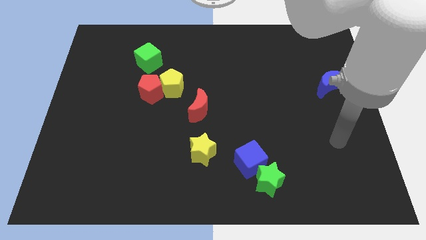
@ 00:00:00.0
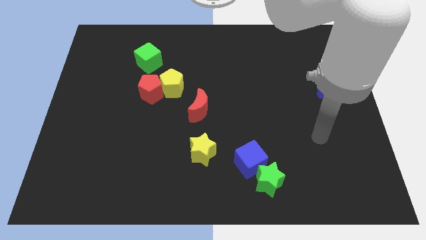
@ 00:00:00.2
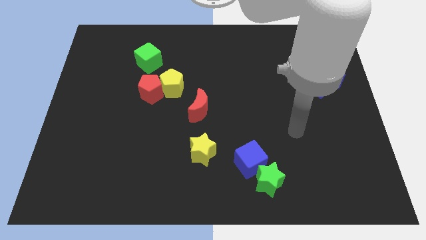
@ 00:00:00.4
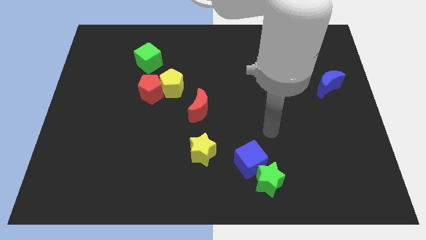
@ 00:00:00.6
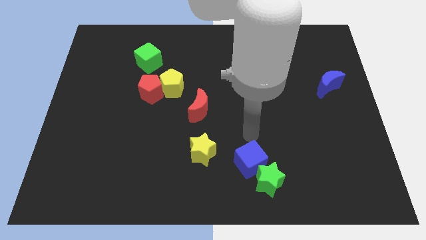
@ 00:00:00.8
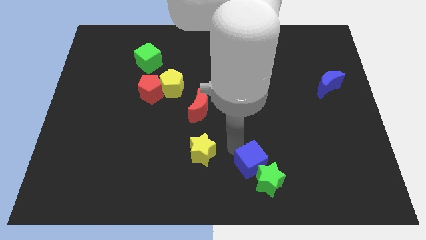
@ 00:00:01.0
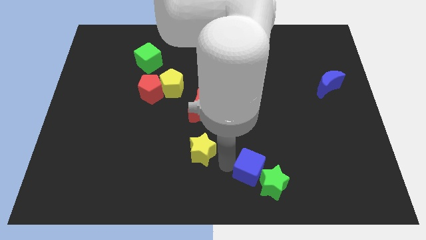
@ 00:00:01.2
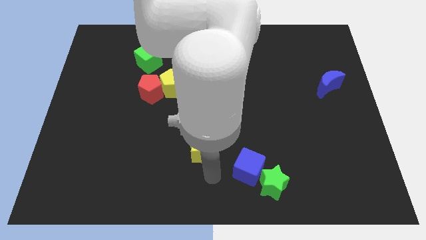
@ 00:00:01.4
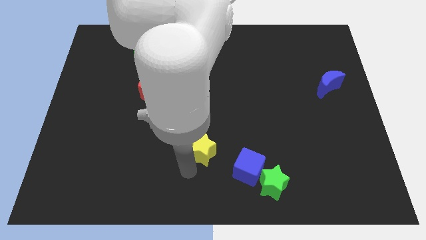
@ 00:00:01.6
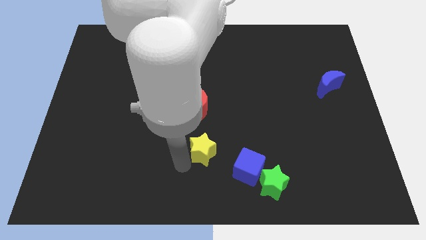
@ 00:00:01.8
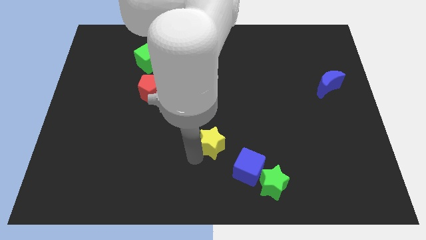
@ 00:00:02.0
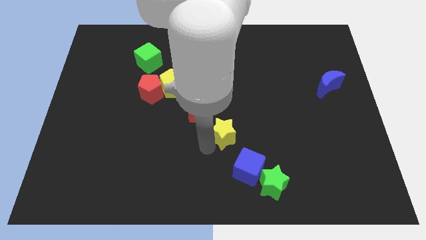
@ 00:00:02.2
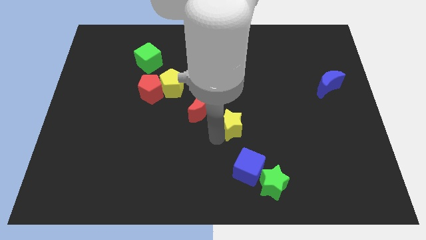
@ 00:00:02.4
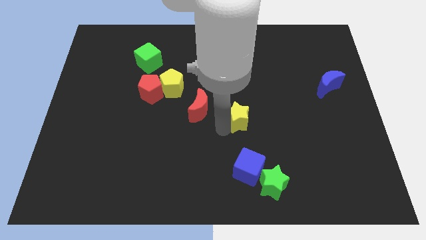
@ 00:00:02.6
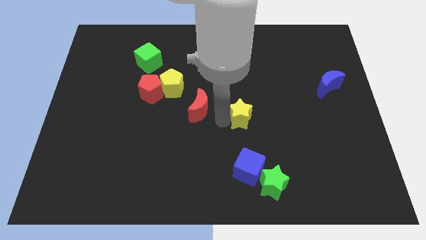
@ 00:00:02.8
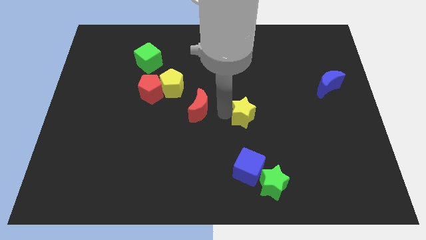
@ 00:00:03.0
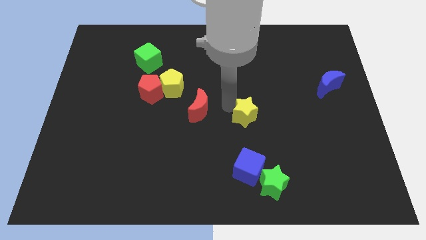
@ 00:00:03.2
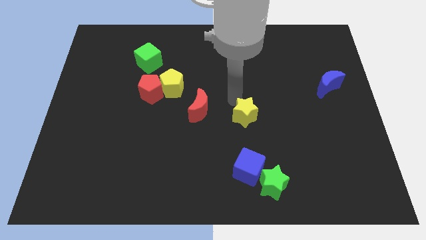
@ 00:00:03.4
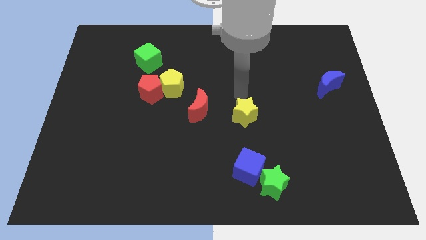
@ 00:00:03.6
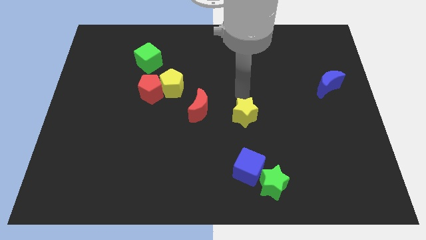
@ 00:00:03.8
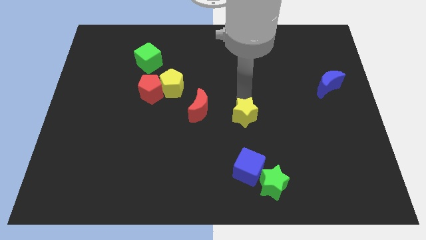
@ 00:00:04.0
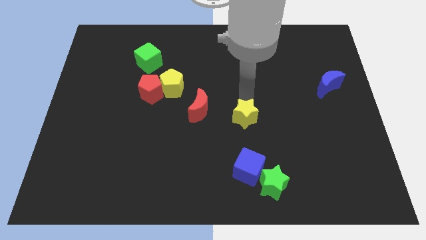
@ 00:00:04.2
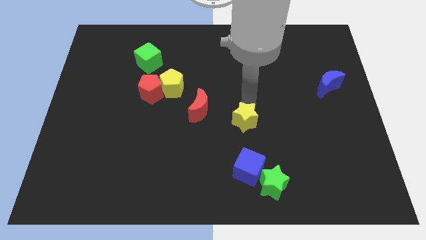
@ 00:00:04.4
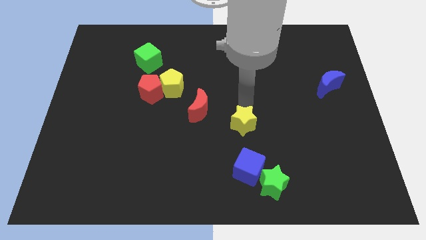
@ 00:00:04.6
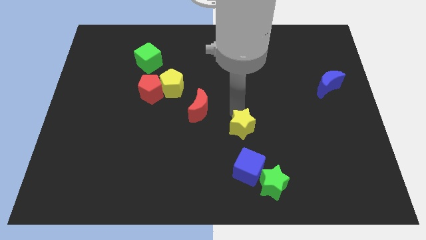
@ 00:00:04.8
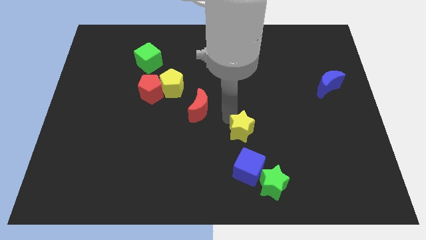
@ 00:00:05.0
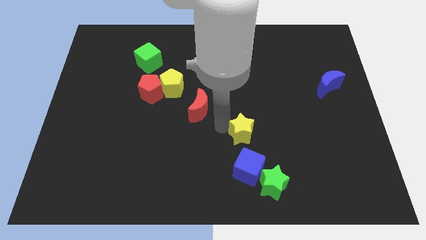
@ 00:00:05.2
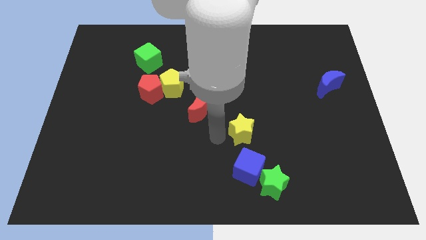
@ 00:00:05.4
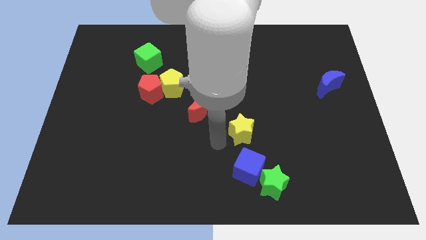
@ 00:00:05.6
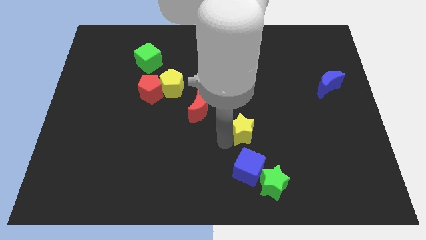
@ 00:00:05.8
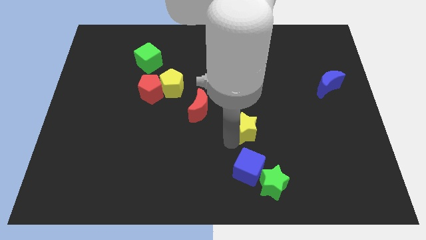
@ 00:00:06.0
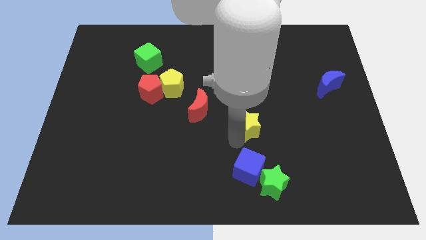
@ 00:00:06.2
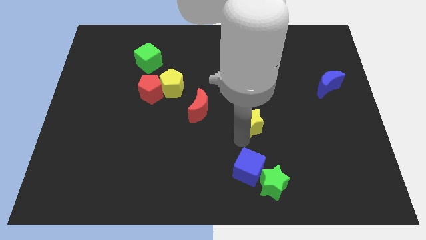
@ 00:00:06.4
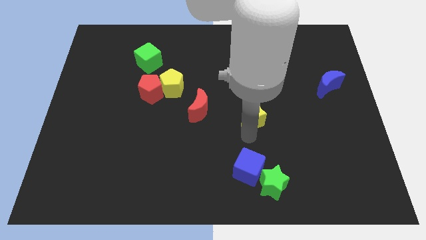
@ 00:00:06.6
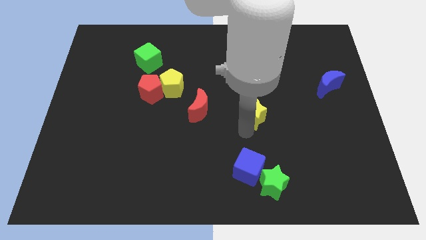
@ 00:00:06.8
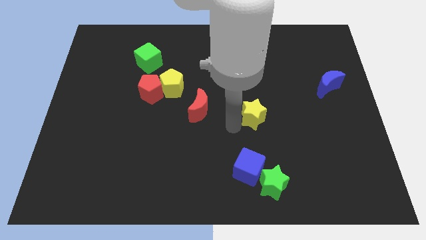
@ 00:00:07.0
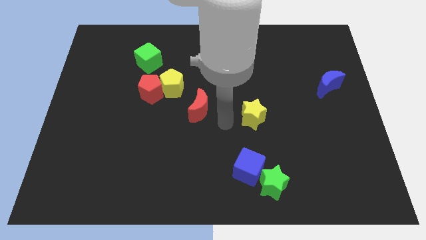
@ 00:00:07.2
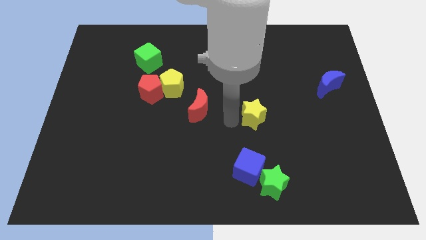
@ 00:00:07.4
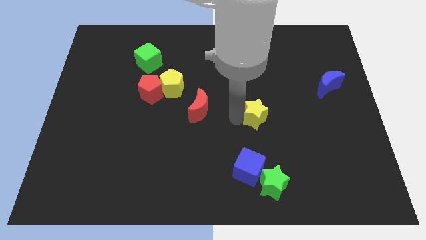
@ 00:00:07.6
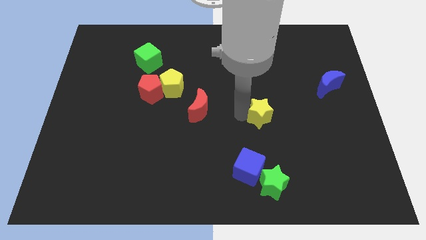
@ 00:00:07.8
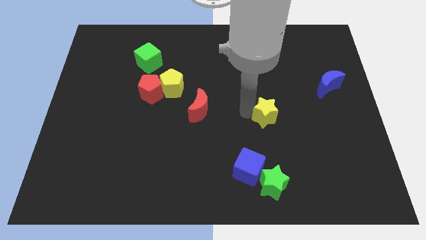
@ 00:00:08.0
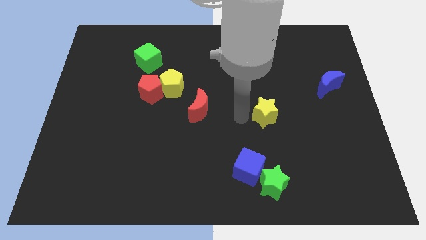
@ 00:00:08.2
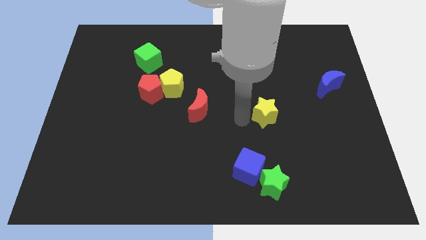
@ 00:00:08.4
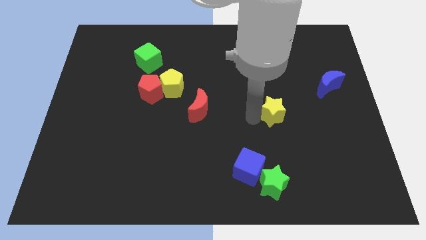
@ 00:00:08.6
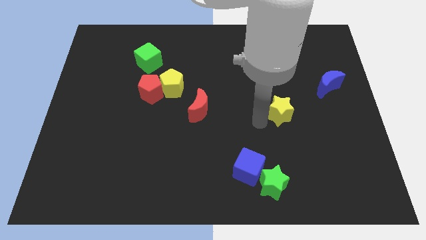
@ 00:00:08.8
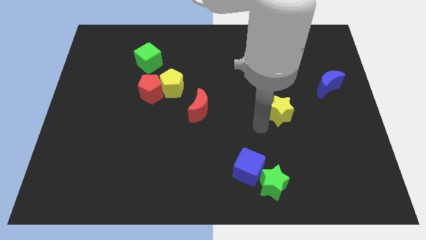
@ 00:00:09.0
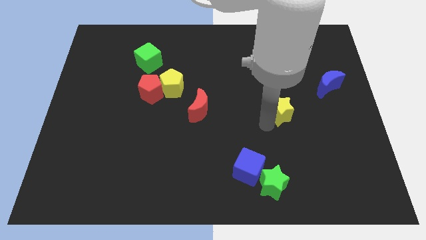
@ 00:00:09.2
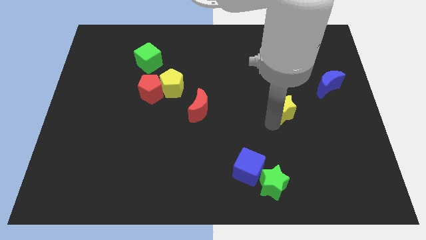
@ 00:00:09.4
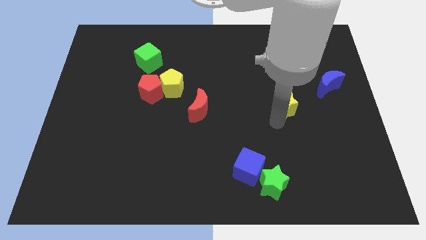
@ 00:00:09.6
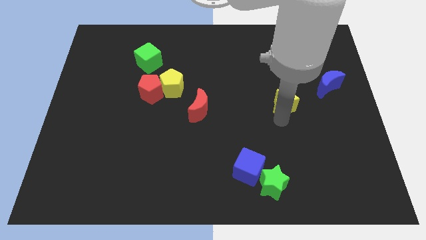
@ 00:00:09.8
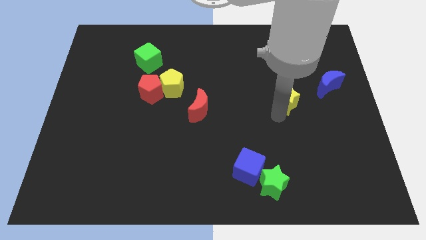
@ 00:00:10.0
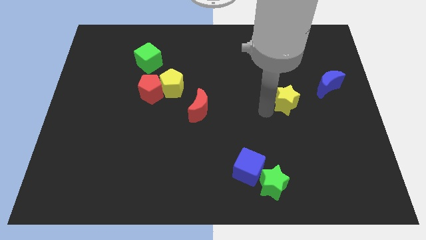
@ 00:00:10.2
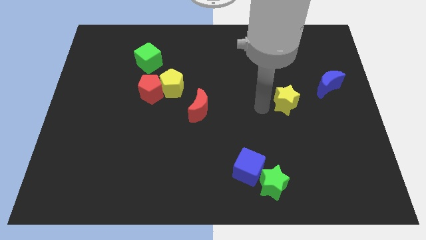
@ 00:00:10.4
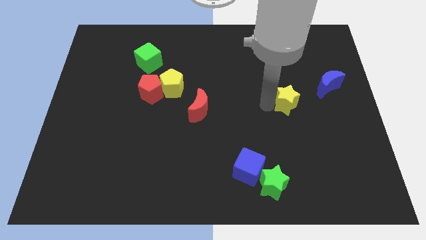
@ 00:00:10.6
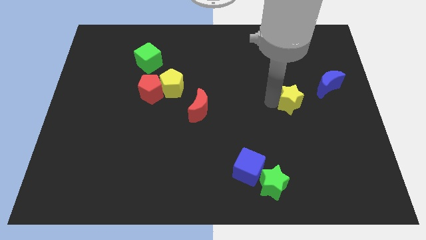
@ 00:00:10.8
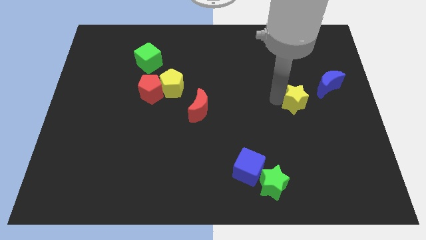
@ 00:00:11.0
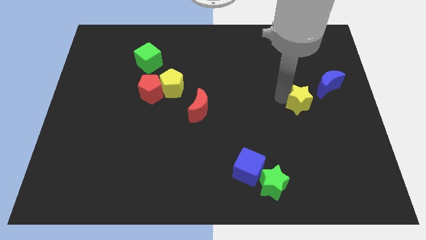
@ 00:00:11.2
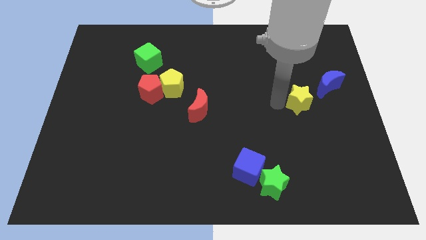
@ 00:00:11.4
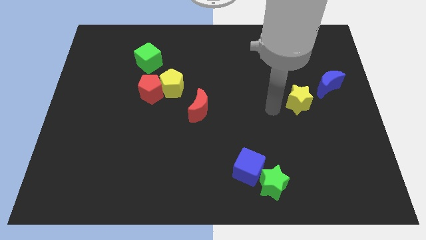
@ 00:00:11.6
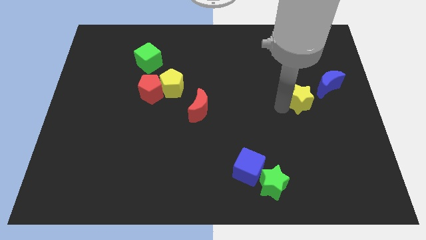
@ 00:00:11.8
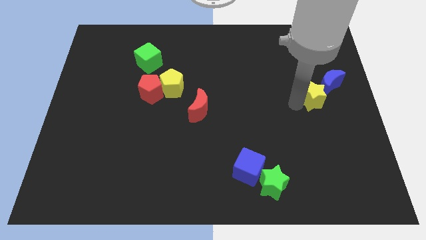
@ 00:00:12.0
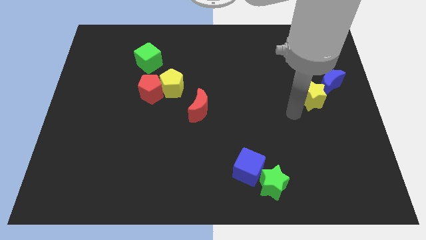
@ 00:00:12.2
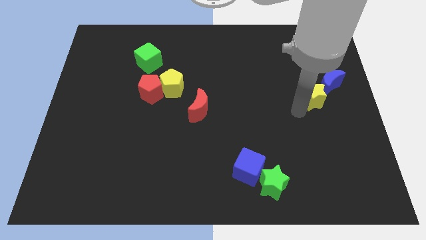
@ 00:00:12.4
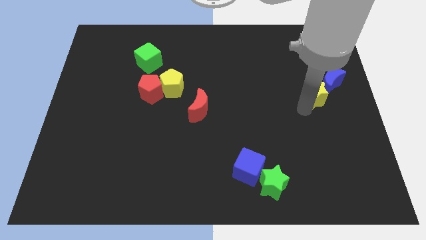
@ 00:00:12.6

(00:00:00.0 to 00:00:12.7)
push the yellow star next to the blue moon

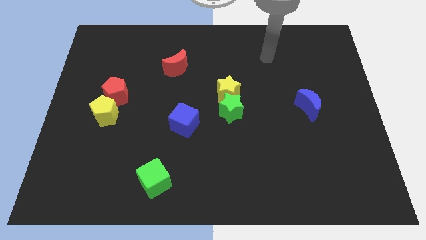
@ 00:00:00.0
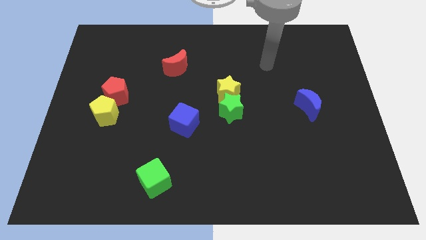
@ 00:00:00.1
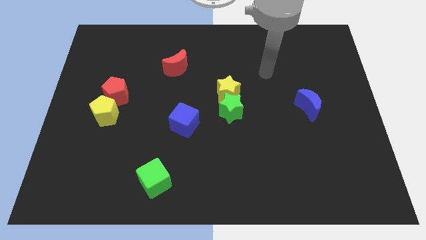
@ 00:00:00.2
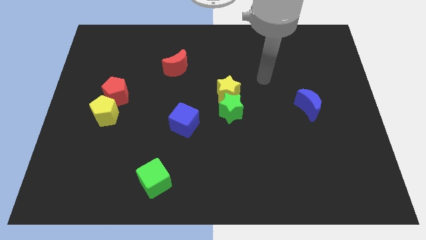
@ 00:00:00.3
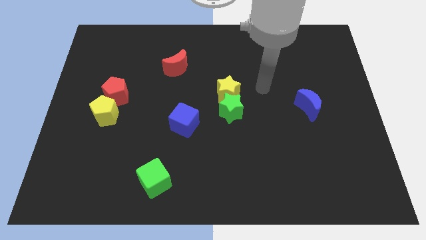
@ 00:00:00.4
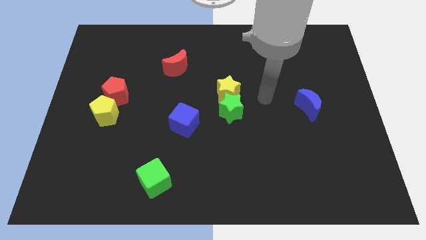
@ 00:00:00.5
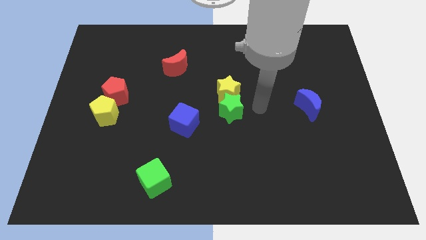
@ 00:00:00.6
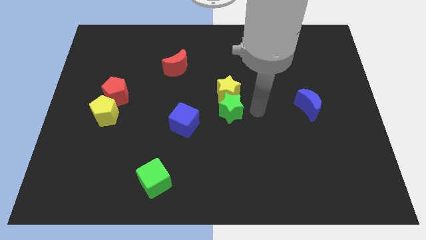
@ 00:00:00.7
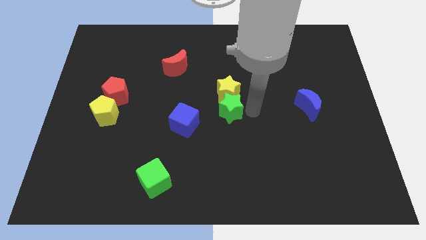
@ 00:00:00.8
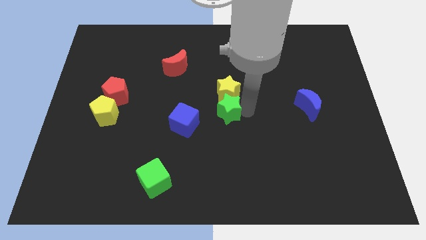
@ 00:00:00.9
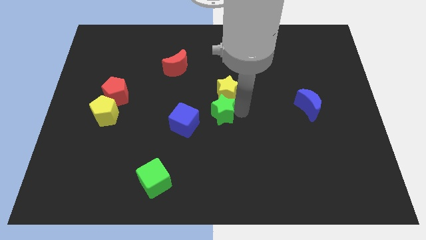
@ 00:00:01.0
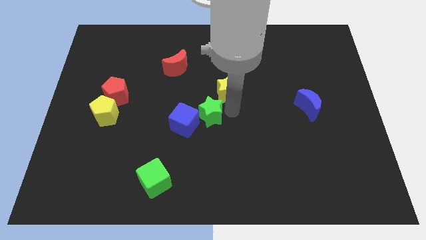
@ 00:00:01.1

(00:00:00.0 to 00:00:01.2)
move the green star to the blue cube
